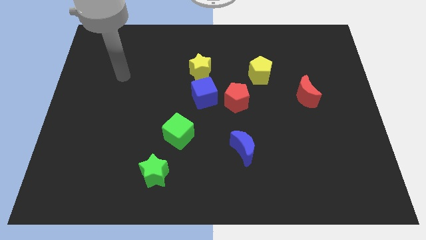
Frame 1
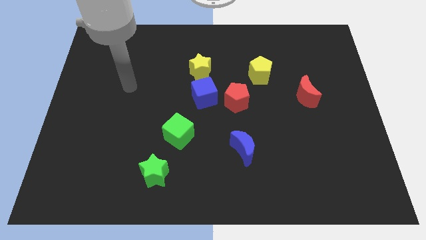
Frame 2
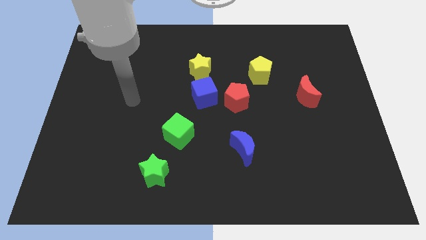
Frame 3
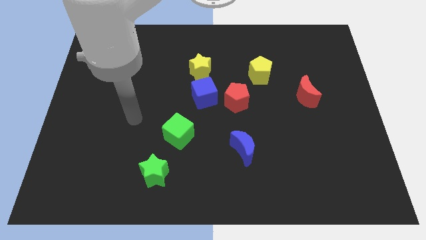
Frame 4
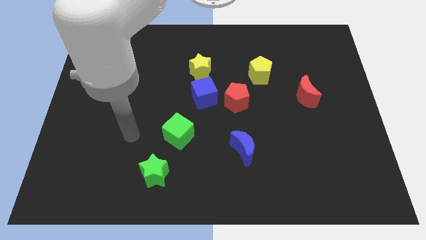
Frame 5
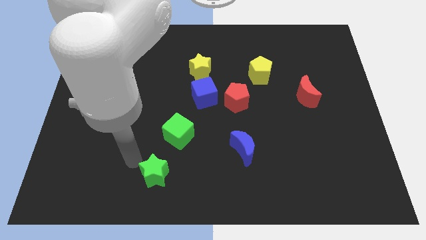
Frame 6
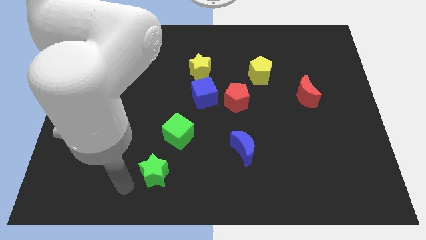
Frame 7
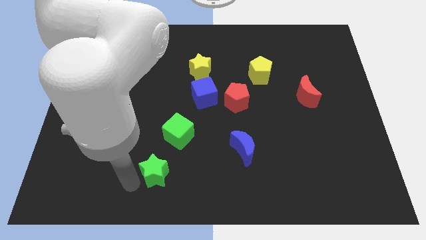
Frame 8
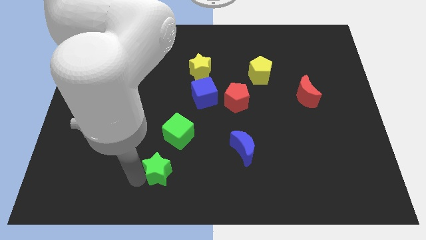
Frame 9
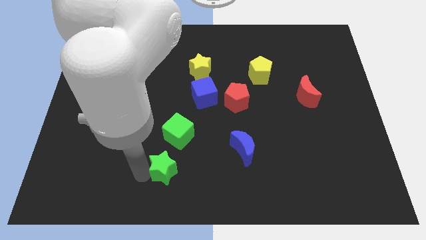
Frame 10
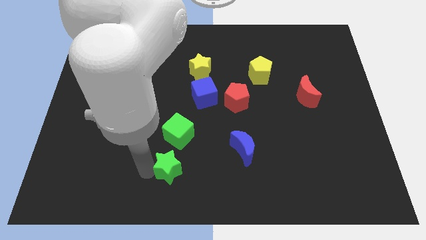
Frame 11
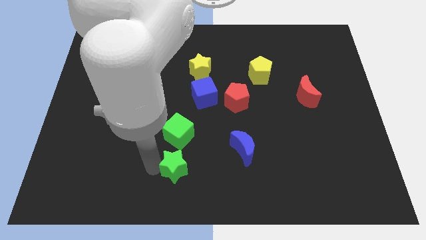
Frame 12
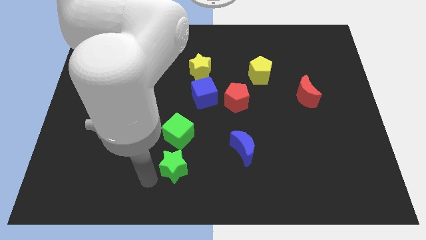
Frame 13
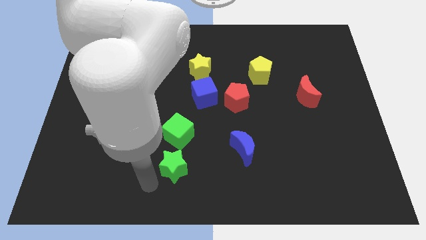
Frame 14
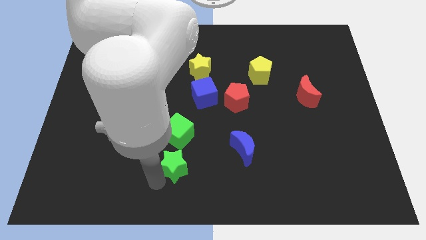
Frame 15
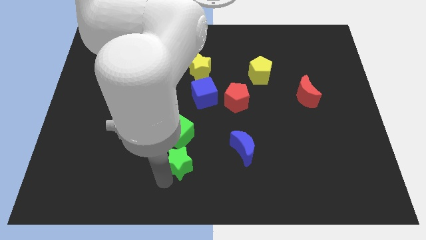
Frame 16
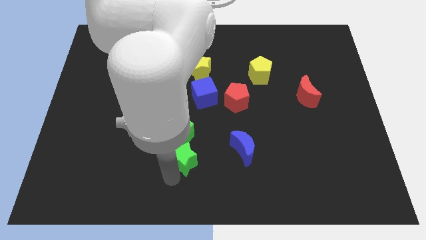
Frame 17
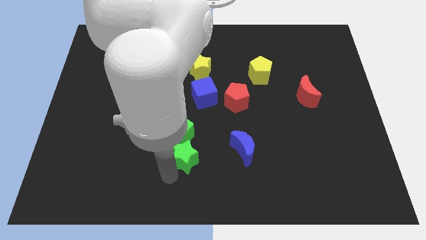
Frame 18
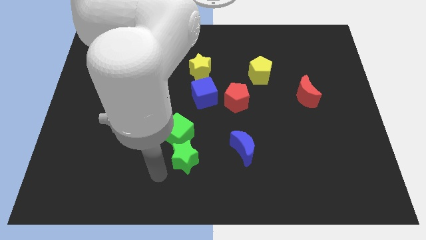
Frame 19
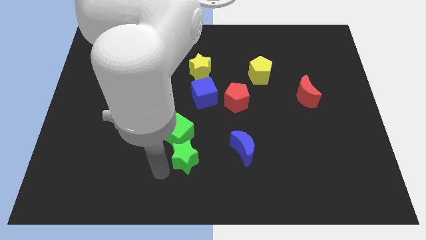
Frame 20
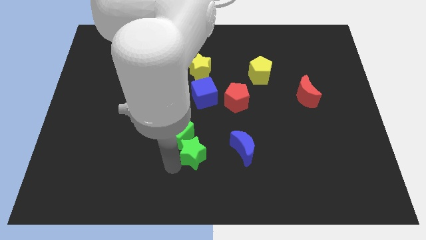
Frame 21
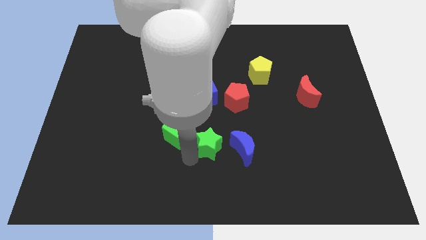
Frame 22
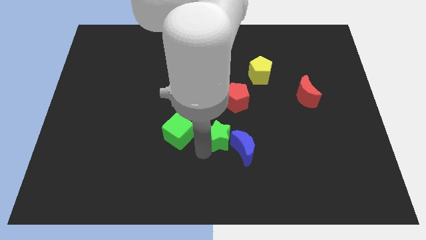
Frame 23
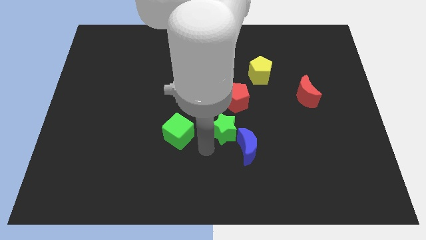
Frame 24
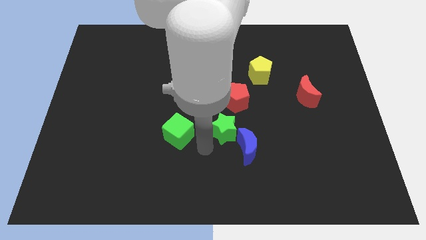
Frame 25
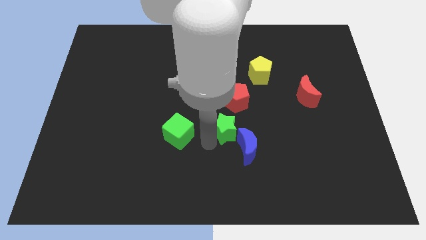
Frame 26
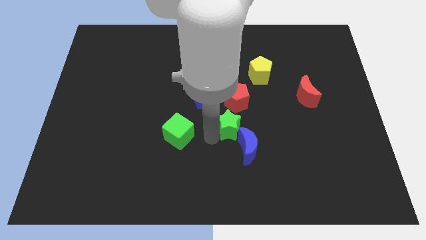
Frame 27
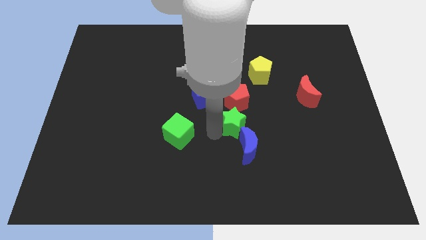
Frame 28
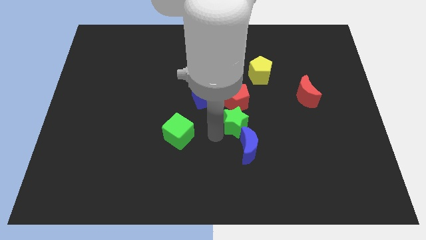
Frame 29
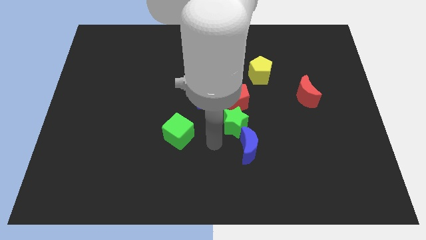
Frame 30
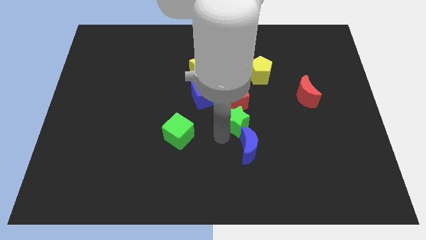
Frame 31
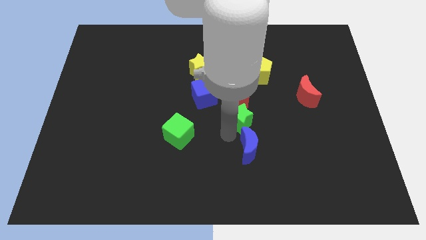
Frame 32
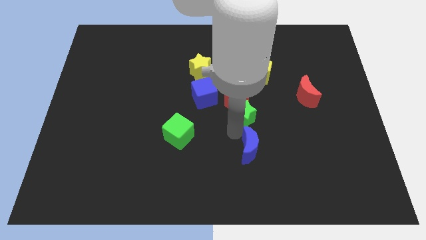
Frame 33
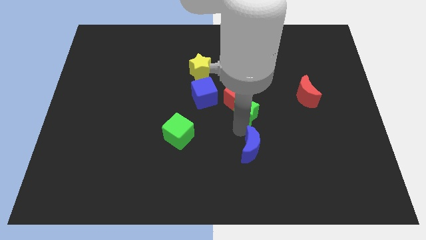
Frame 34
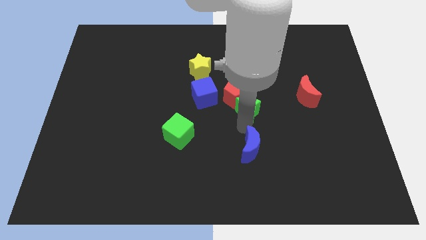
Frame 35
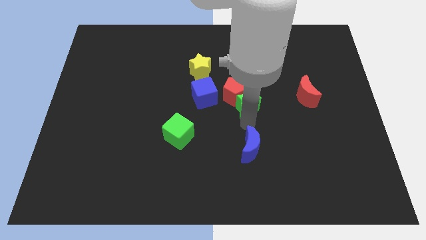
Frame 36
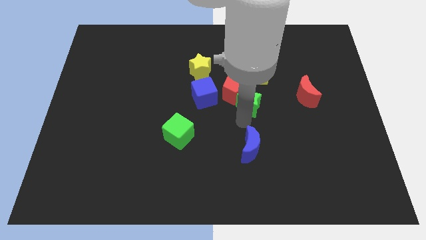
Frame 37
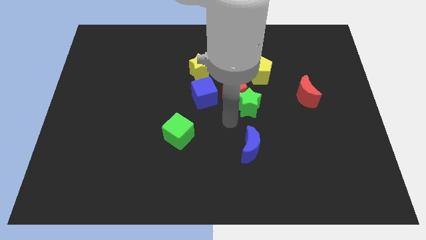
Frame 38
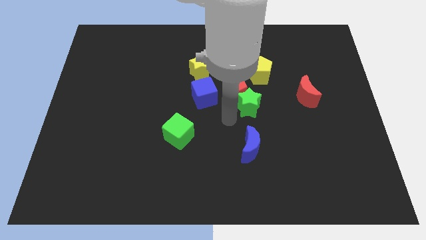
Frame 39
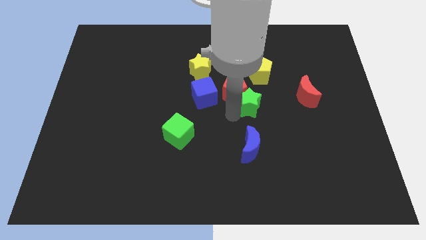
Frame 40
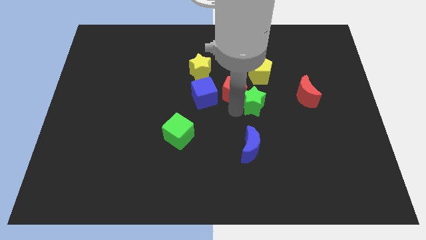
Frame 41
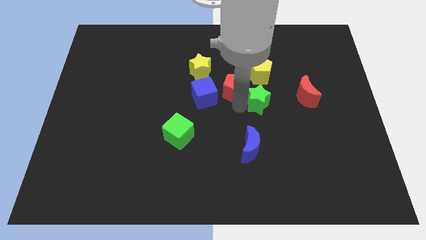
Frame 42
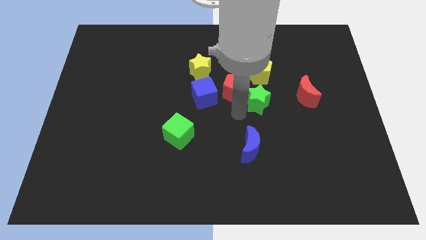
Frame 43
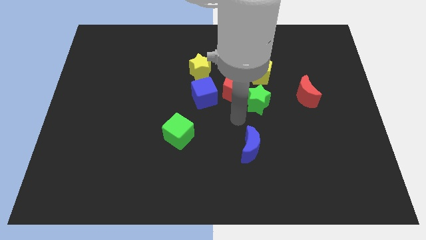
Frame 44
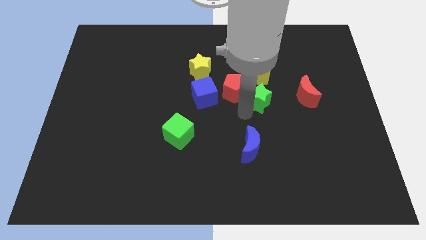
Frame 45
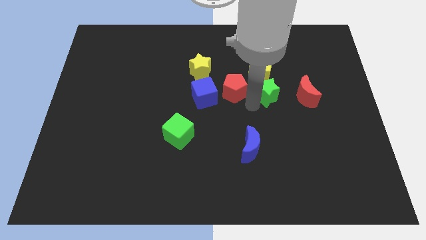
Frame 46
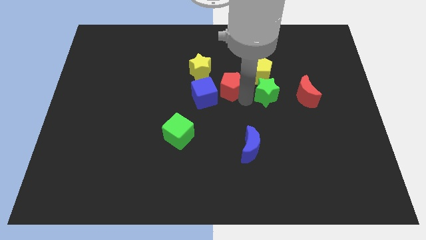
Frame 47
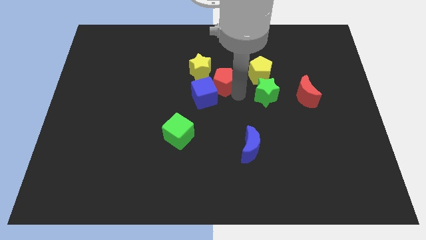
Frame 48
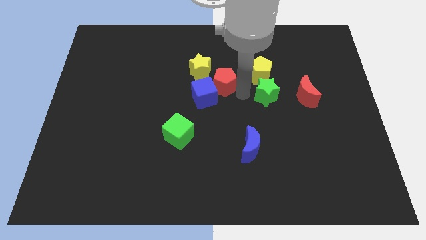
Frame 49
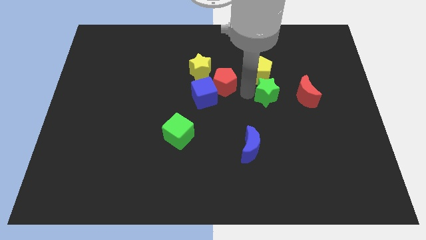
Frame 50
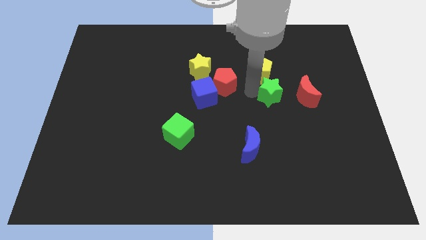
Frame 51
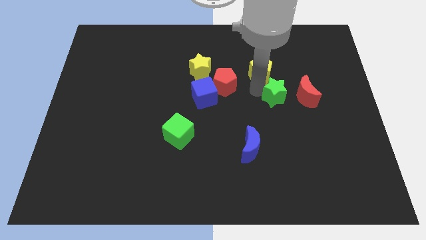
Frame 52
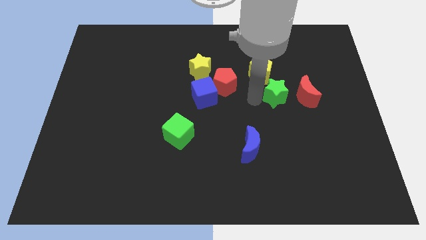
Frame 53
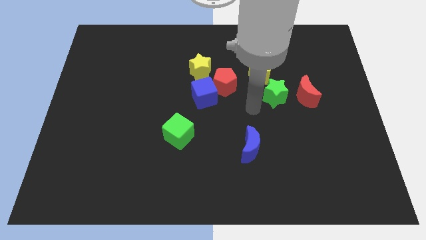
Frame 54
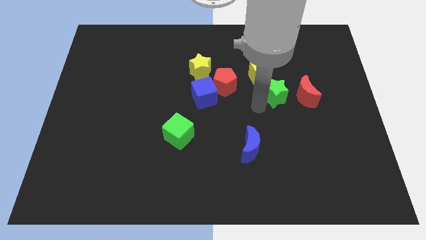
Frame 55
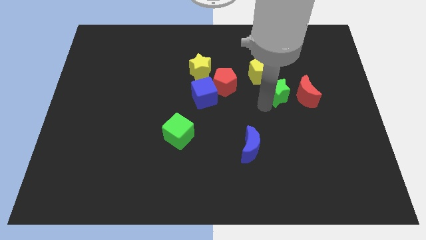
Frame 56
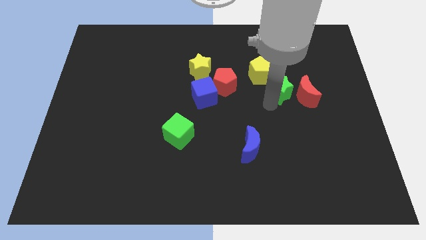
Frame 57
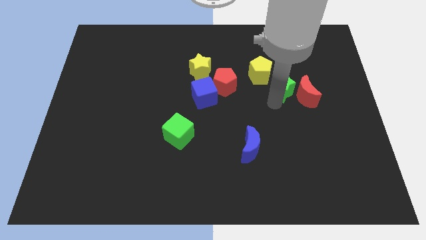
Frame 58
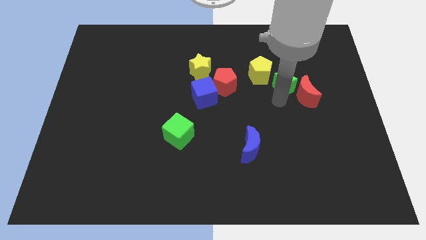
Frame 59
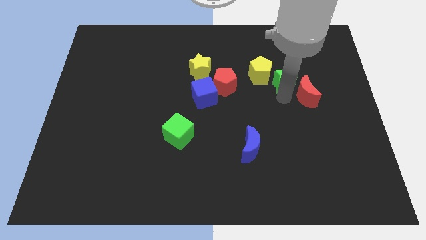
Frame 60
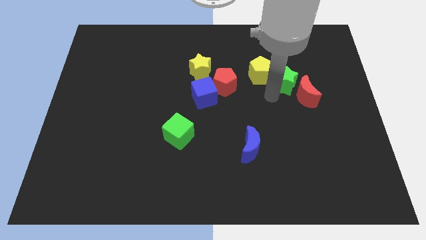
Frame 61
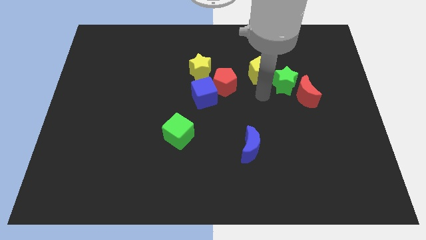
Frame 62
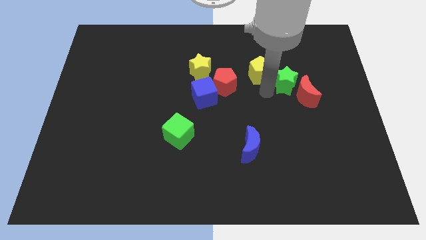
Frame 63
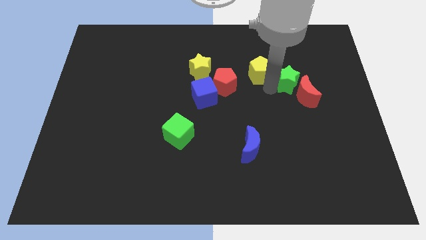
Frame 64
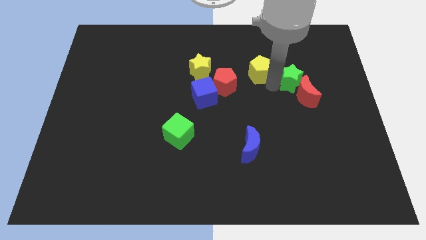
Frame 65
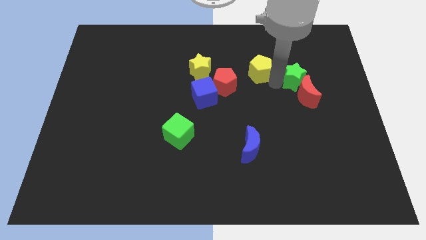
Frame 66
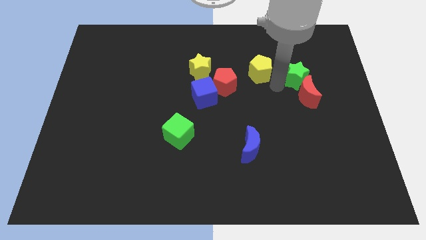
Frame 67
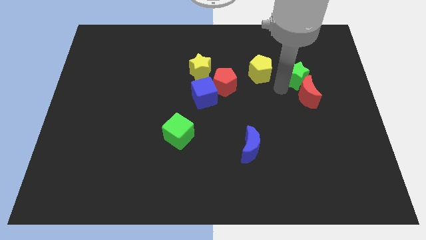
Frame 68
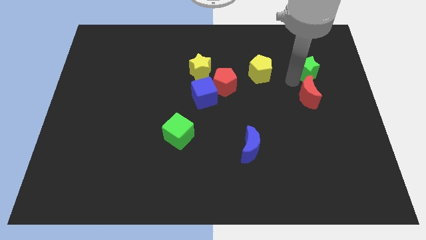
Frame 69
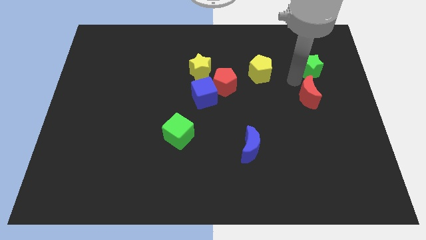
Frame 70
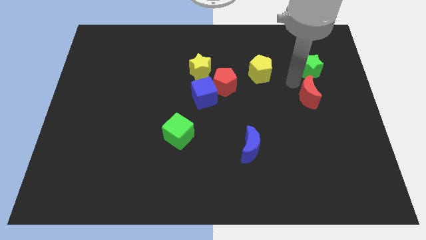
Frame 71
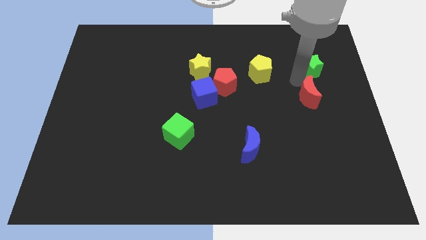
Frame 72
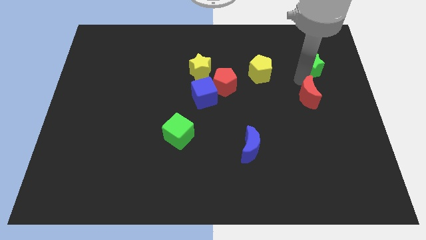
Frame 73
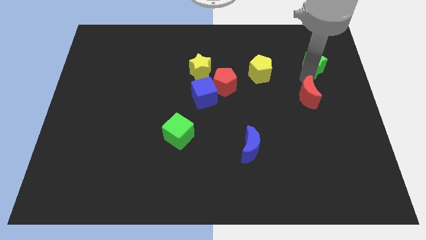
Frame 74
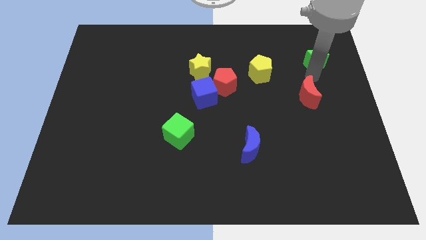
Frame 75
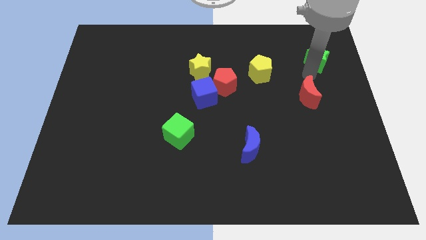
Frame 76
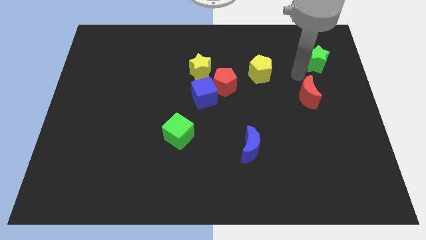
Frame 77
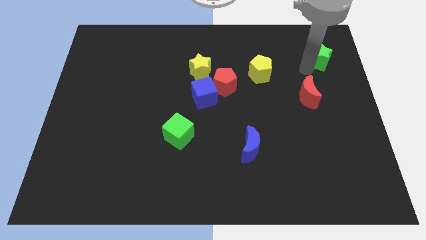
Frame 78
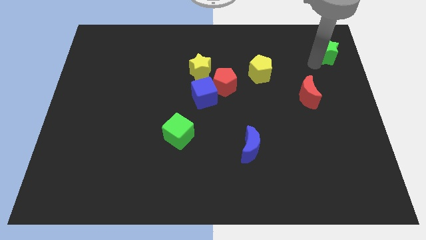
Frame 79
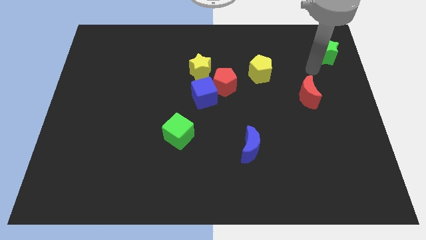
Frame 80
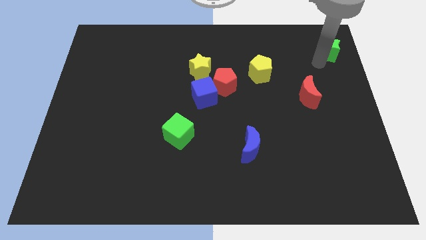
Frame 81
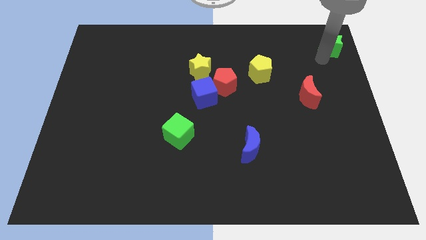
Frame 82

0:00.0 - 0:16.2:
put the green star to the top right of the board
